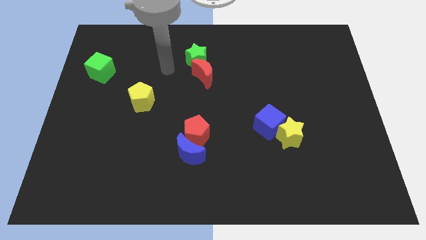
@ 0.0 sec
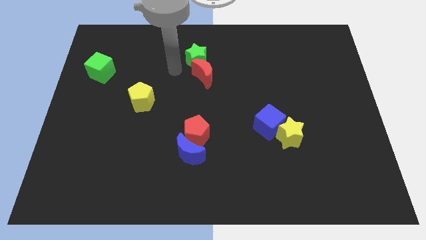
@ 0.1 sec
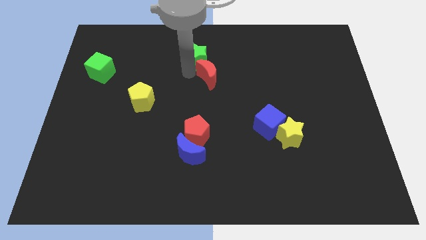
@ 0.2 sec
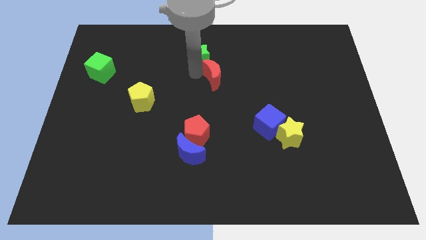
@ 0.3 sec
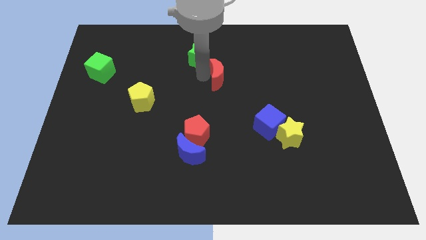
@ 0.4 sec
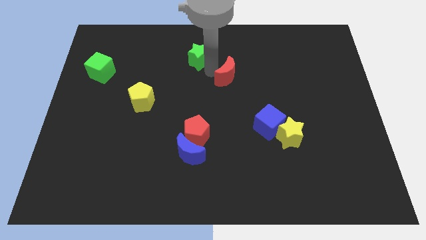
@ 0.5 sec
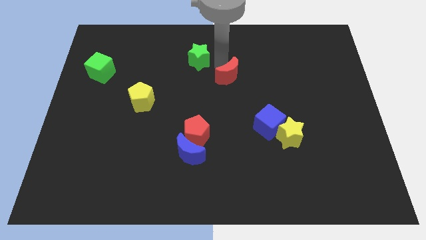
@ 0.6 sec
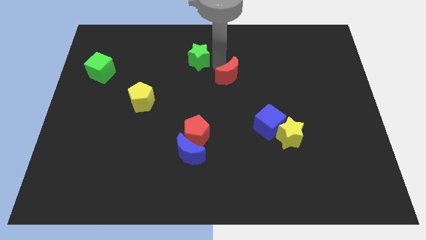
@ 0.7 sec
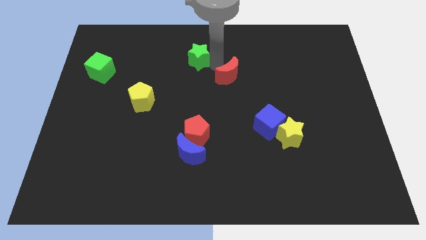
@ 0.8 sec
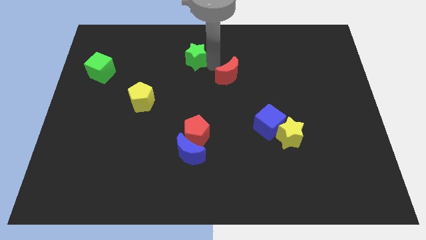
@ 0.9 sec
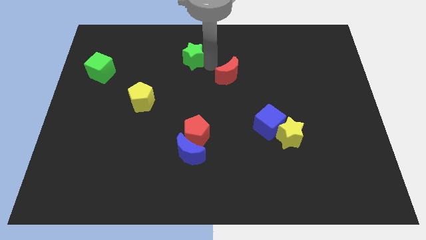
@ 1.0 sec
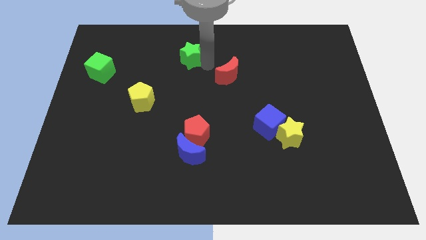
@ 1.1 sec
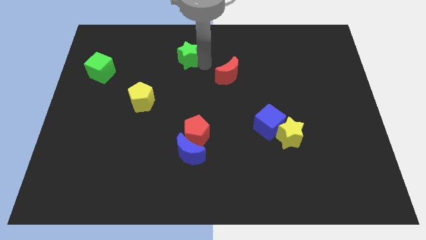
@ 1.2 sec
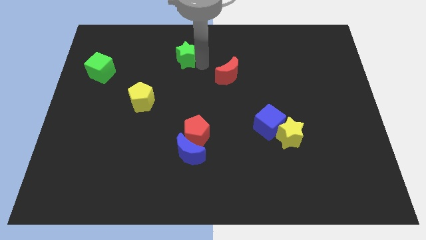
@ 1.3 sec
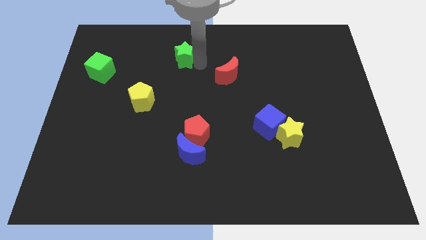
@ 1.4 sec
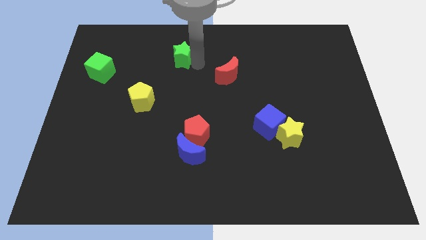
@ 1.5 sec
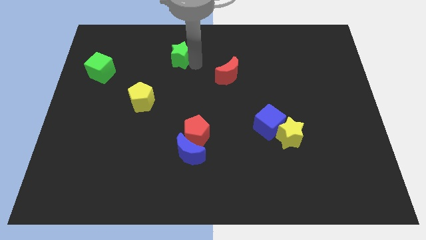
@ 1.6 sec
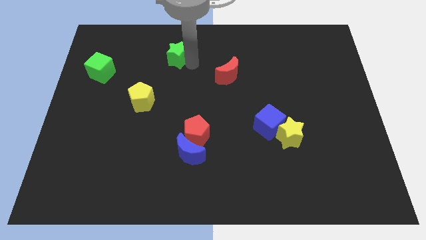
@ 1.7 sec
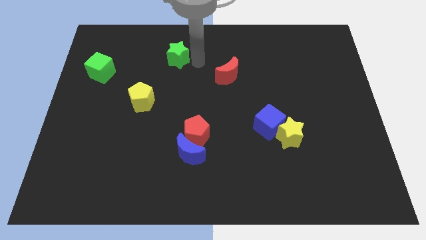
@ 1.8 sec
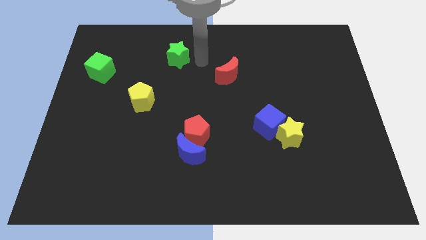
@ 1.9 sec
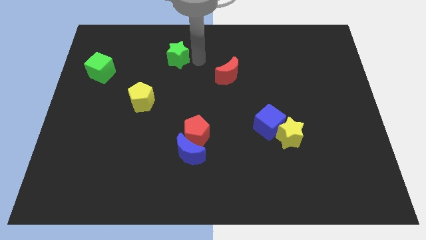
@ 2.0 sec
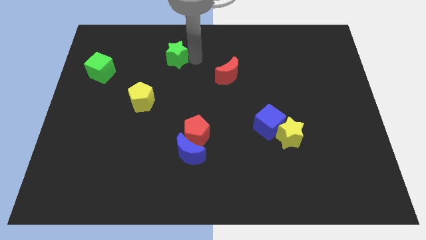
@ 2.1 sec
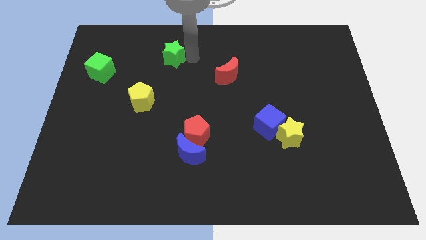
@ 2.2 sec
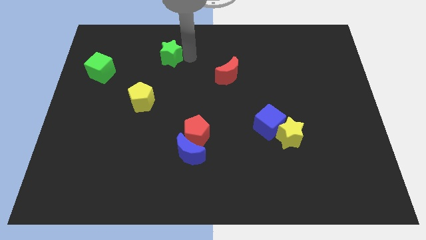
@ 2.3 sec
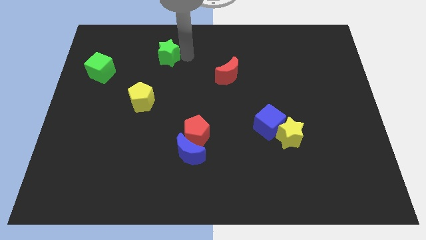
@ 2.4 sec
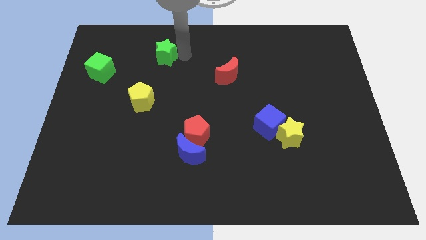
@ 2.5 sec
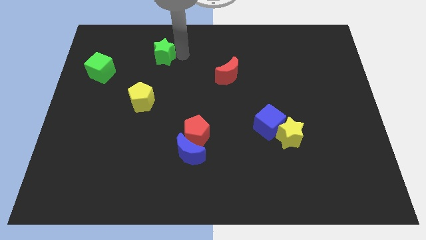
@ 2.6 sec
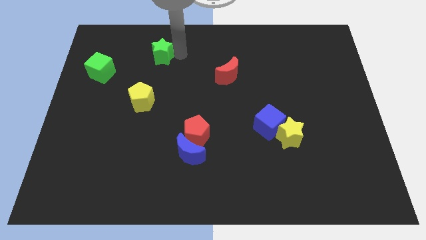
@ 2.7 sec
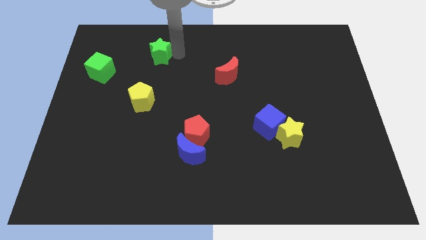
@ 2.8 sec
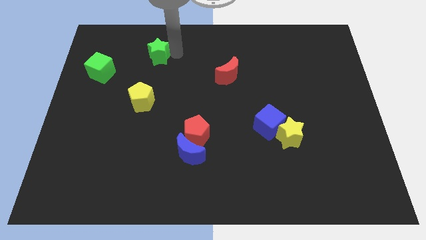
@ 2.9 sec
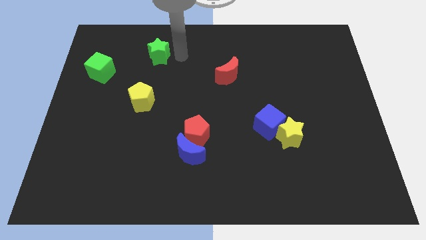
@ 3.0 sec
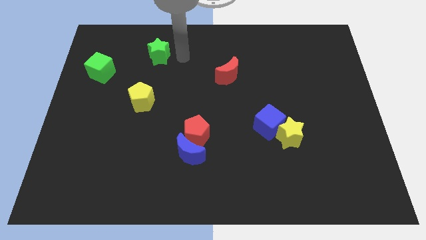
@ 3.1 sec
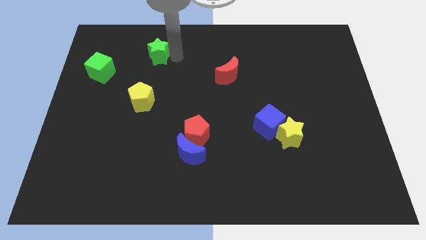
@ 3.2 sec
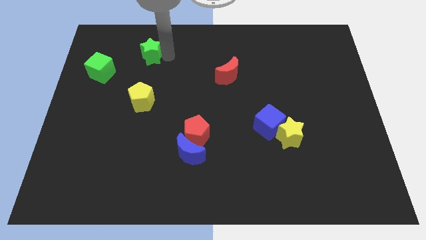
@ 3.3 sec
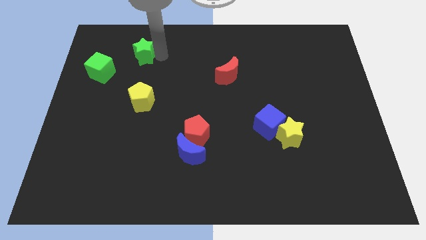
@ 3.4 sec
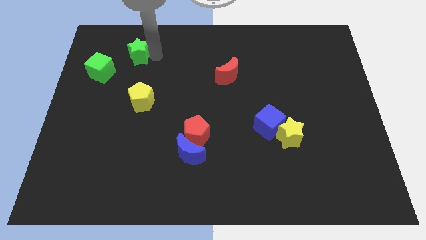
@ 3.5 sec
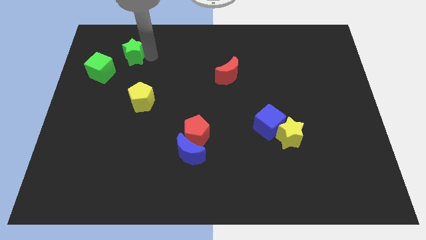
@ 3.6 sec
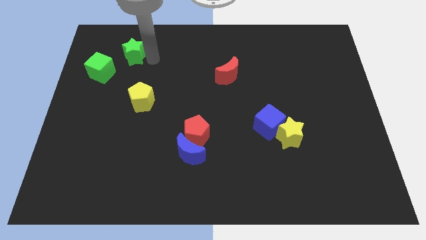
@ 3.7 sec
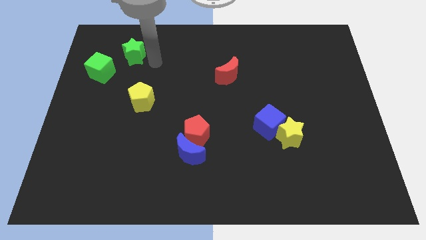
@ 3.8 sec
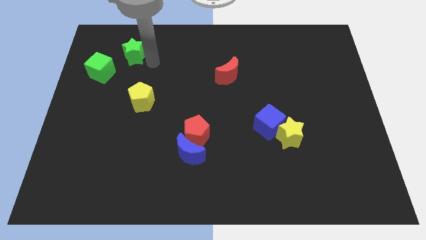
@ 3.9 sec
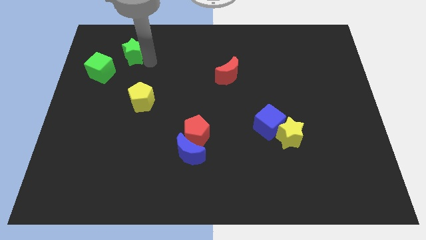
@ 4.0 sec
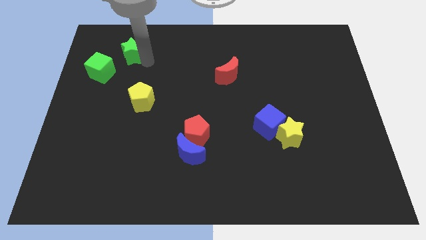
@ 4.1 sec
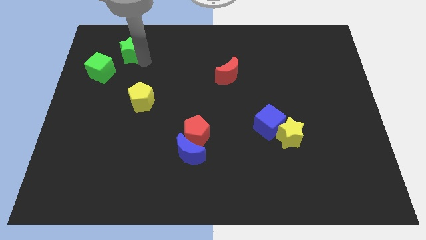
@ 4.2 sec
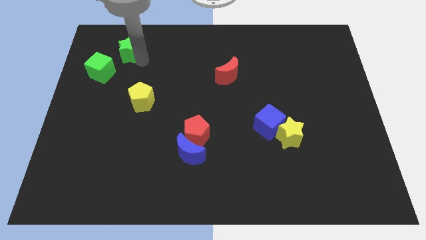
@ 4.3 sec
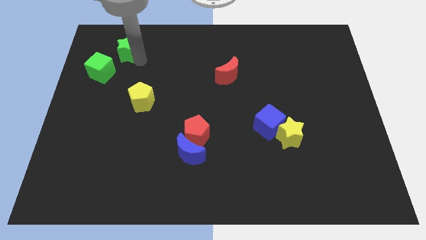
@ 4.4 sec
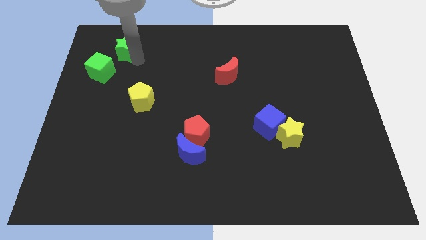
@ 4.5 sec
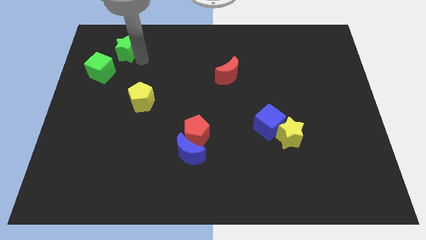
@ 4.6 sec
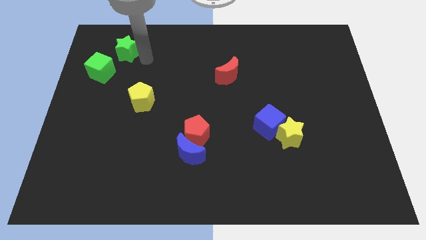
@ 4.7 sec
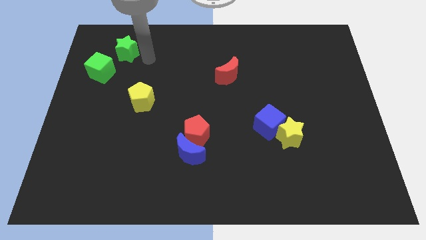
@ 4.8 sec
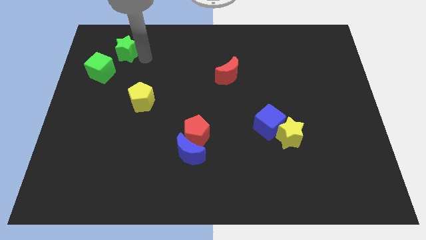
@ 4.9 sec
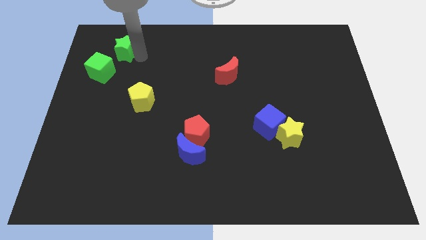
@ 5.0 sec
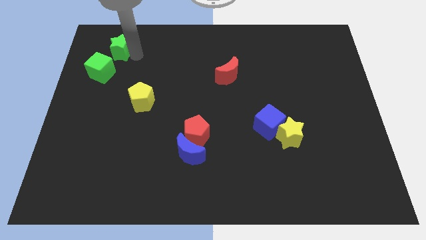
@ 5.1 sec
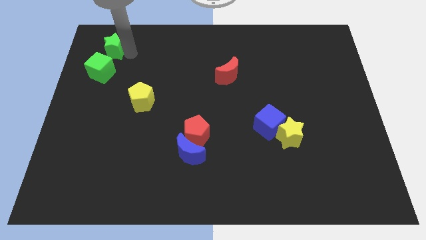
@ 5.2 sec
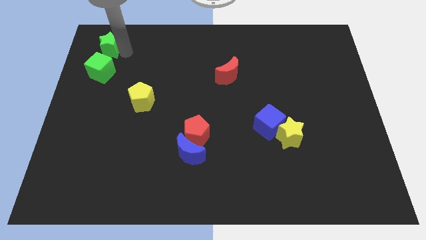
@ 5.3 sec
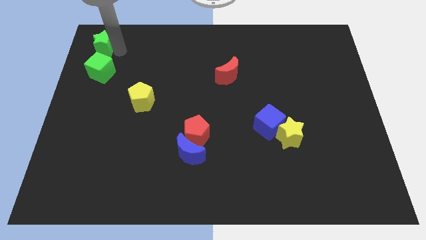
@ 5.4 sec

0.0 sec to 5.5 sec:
put the green star to the top left

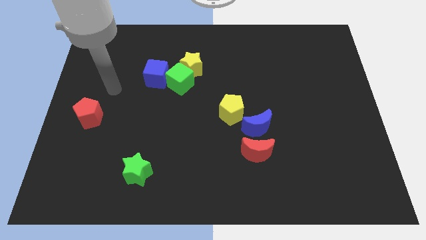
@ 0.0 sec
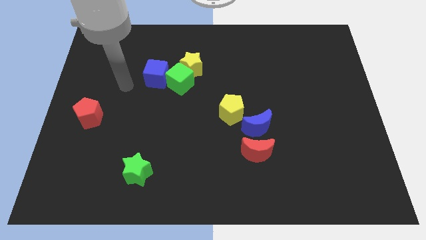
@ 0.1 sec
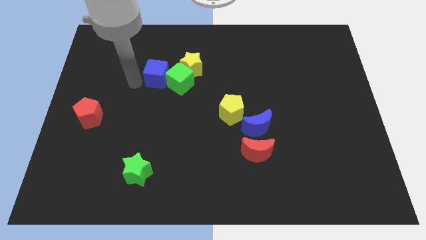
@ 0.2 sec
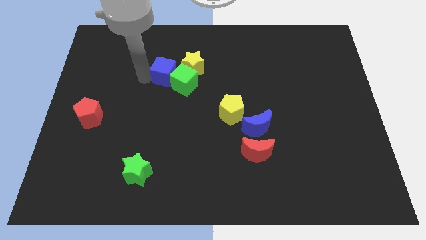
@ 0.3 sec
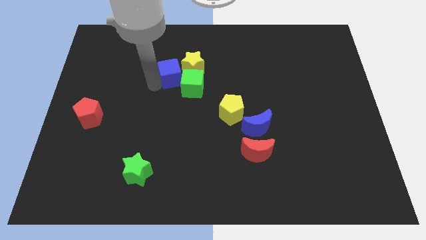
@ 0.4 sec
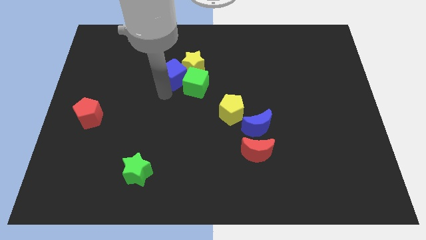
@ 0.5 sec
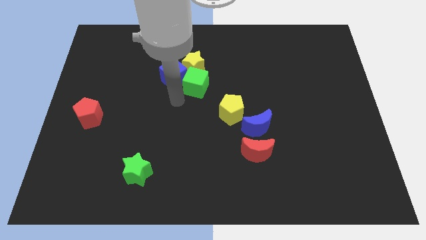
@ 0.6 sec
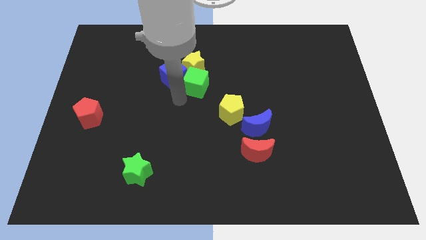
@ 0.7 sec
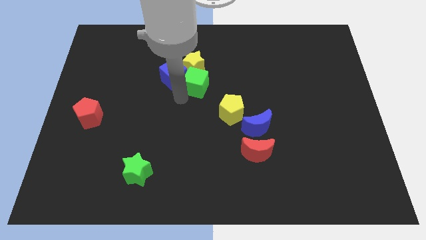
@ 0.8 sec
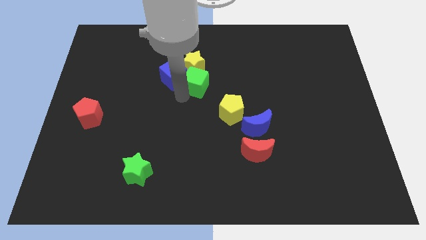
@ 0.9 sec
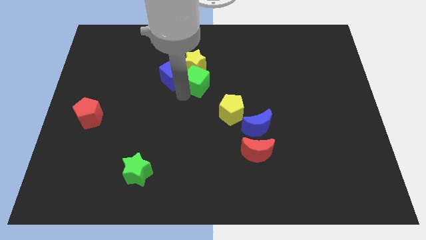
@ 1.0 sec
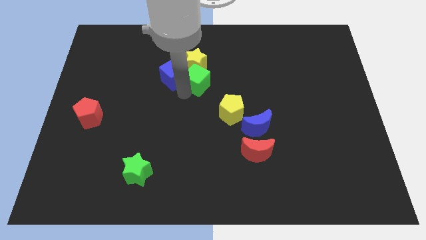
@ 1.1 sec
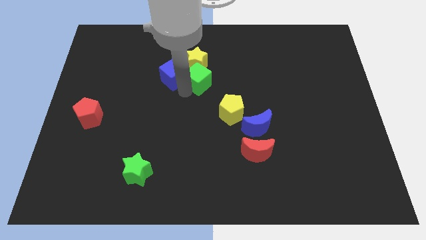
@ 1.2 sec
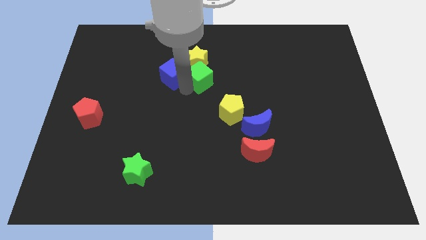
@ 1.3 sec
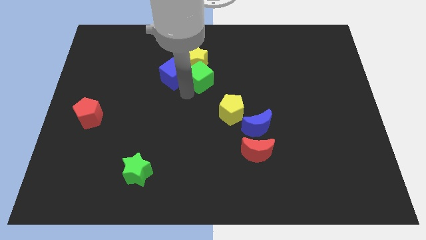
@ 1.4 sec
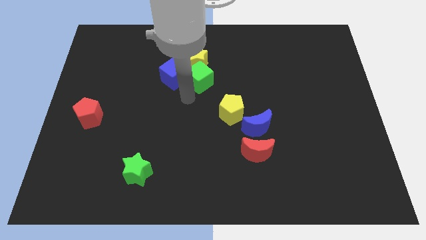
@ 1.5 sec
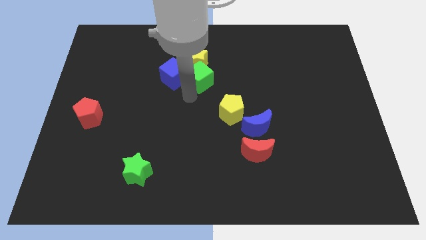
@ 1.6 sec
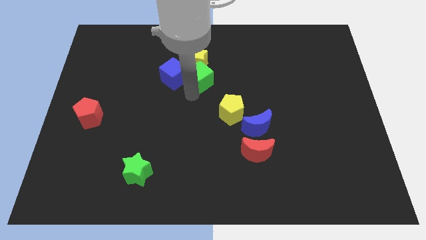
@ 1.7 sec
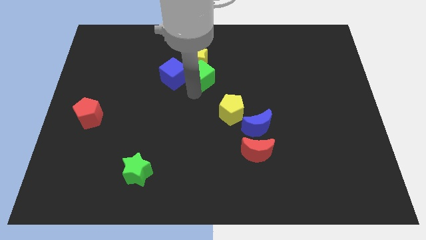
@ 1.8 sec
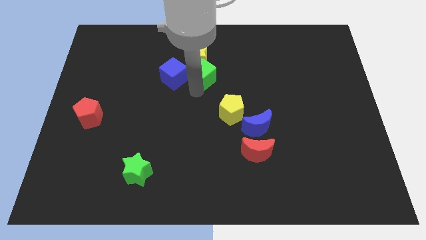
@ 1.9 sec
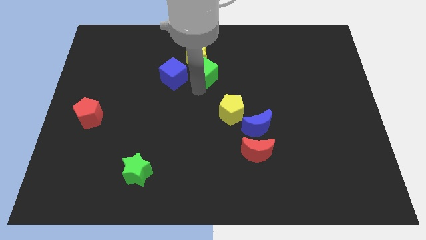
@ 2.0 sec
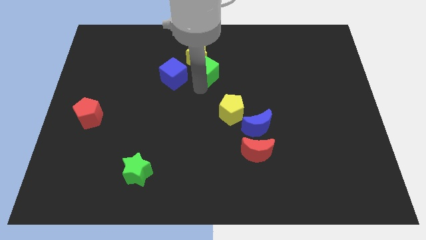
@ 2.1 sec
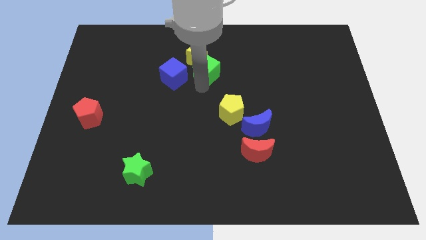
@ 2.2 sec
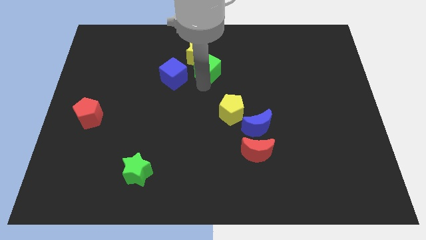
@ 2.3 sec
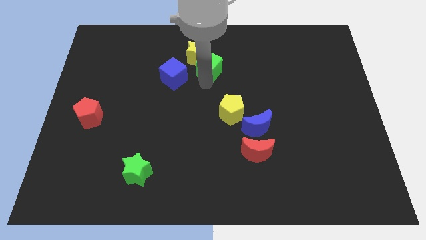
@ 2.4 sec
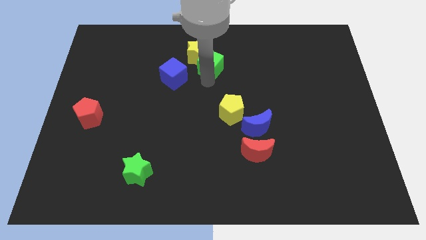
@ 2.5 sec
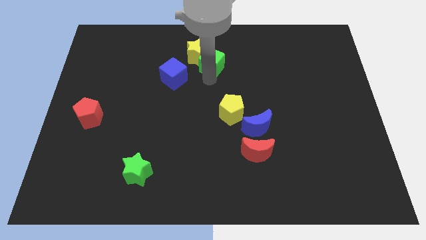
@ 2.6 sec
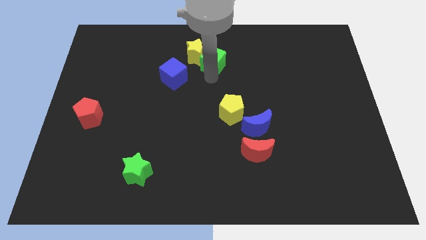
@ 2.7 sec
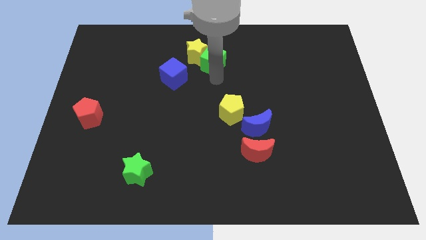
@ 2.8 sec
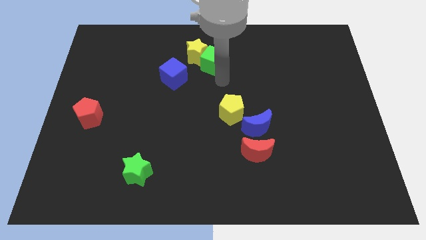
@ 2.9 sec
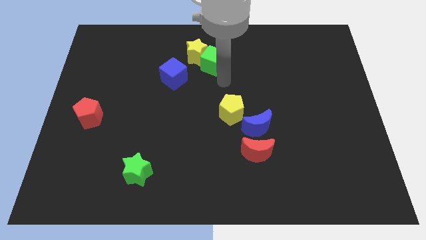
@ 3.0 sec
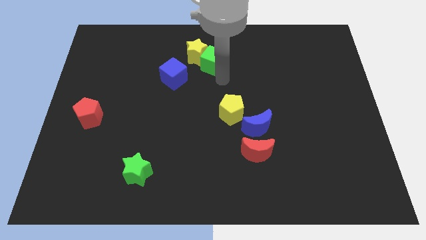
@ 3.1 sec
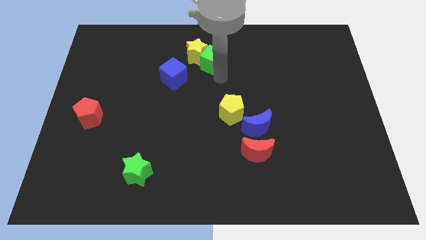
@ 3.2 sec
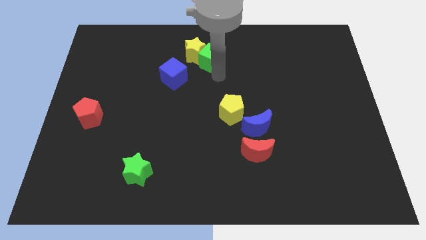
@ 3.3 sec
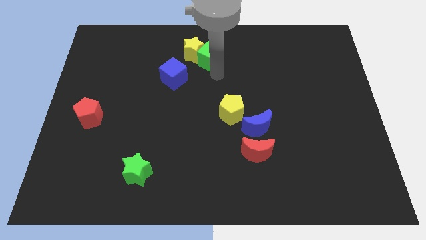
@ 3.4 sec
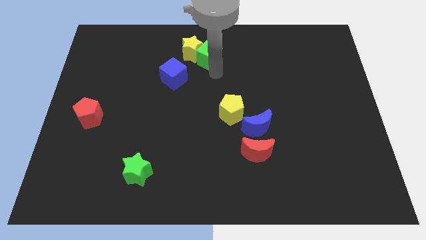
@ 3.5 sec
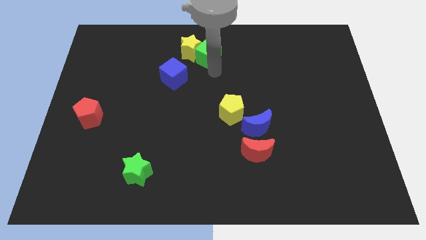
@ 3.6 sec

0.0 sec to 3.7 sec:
push the green cube to the towards your base
